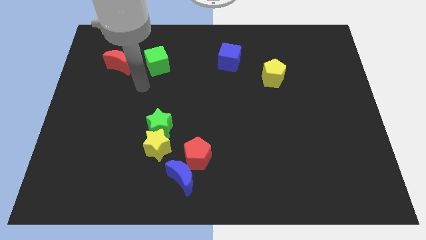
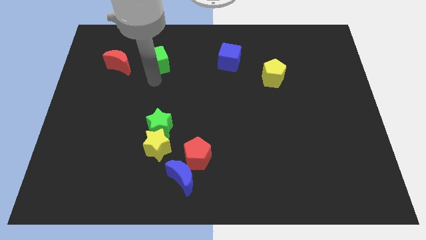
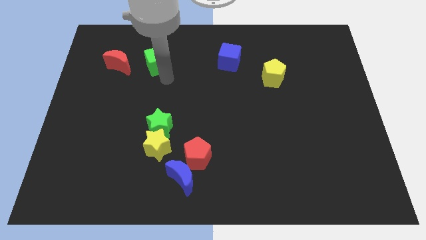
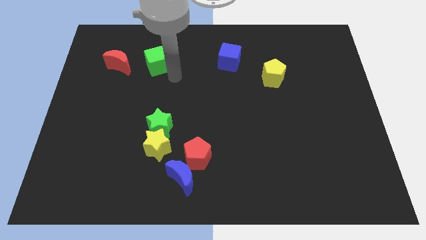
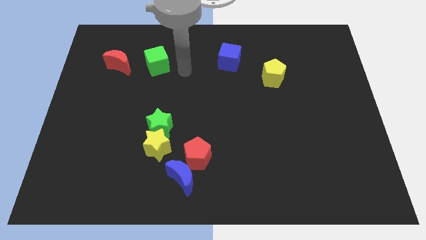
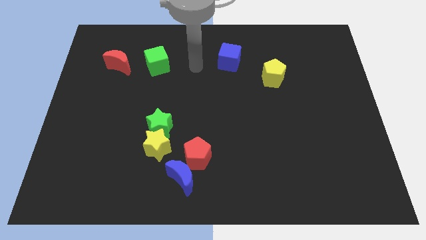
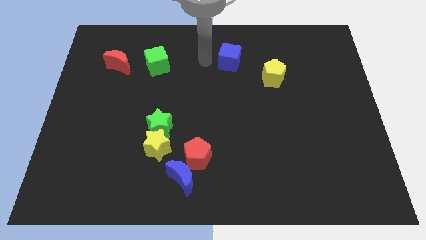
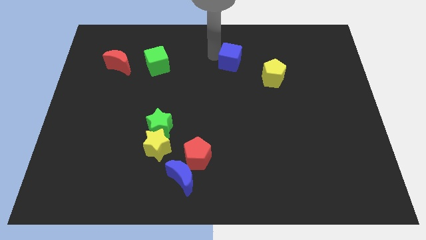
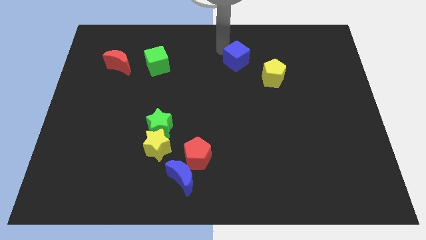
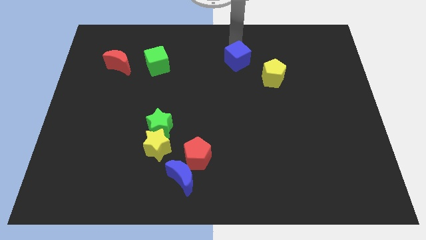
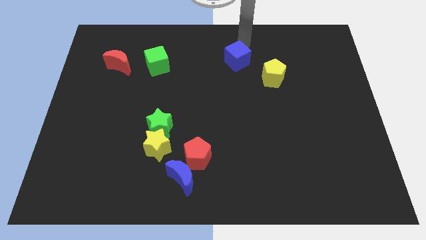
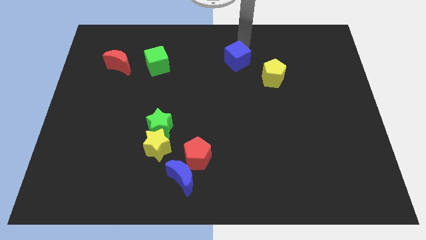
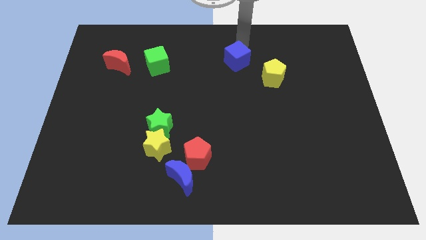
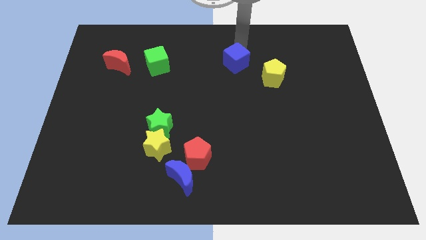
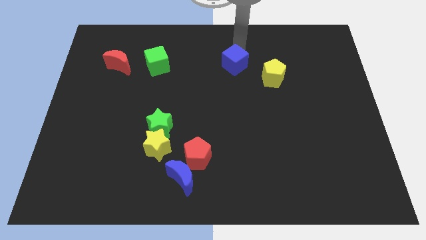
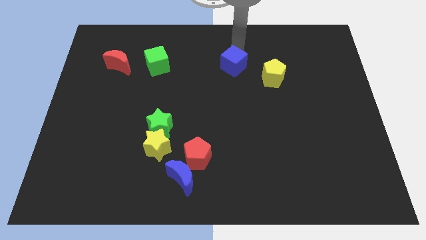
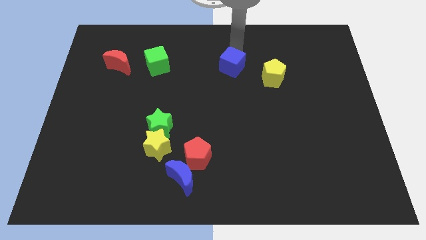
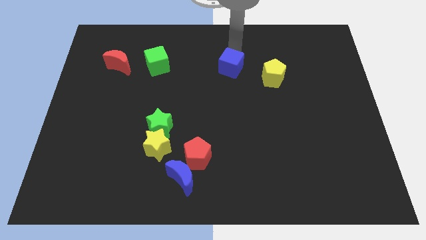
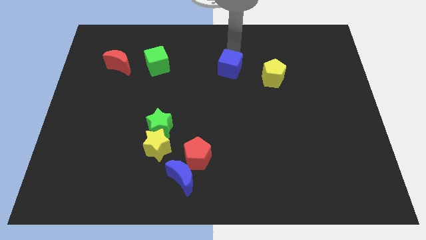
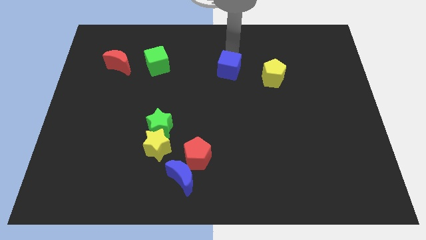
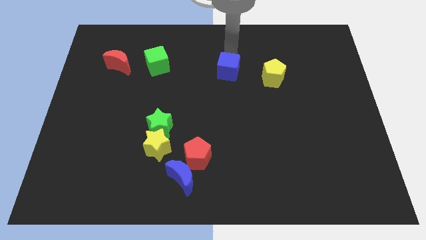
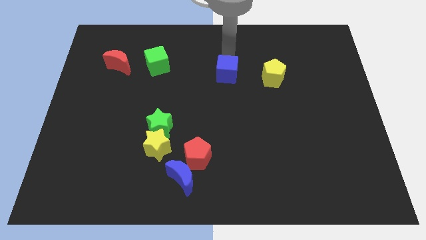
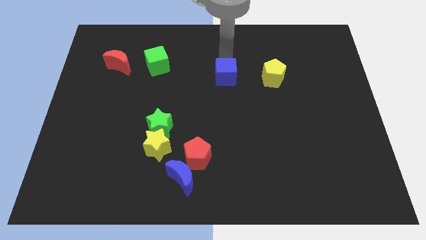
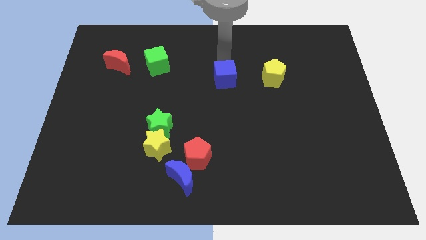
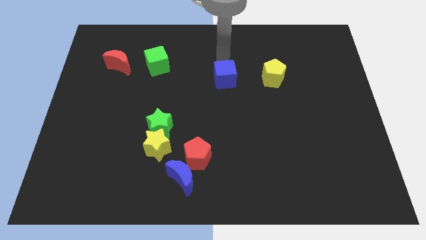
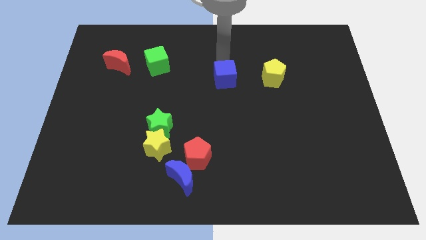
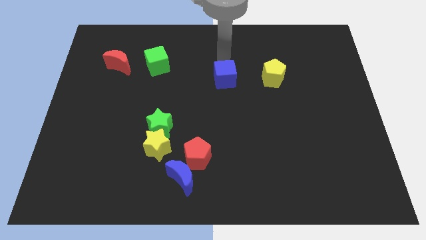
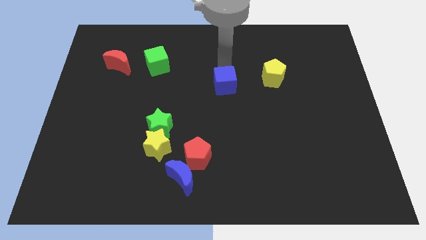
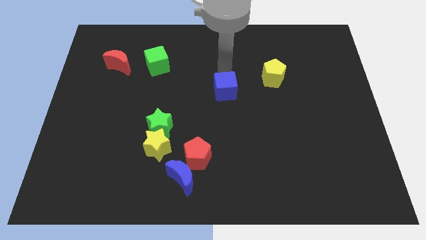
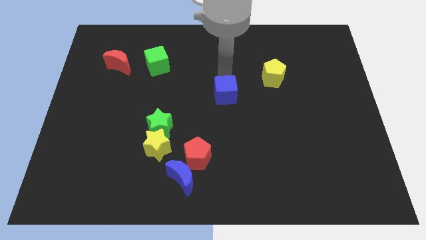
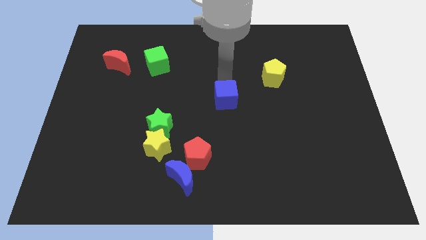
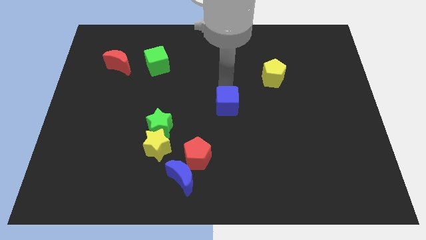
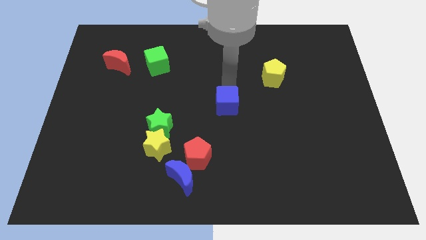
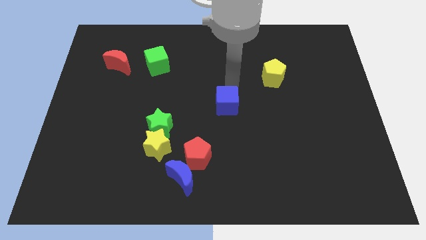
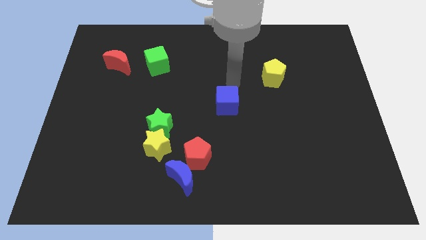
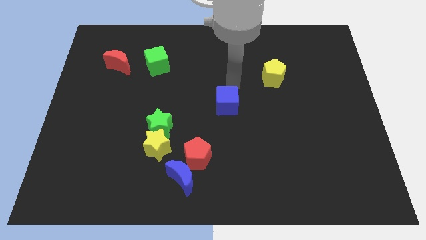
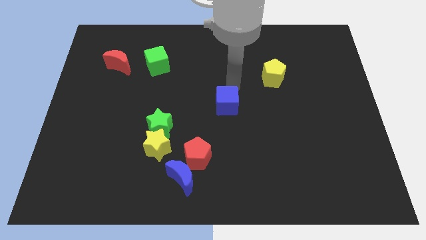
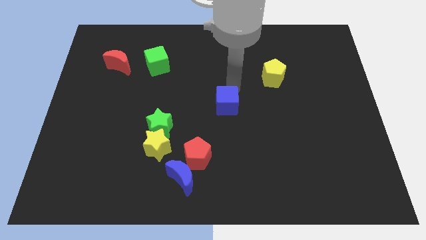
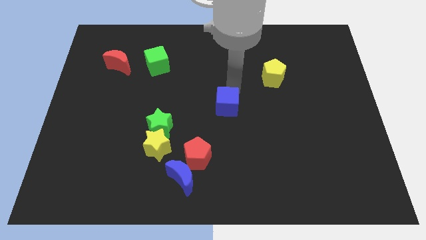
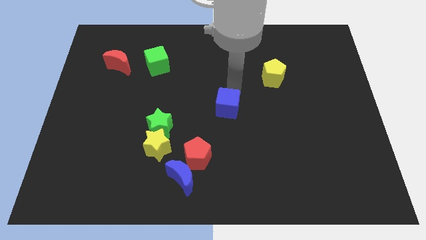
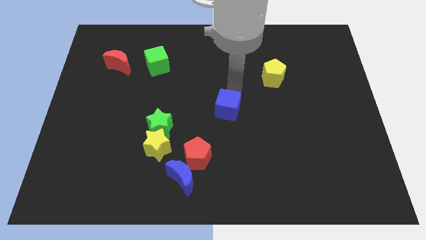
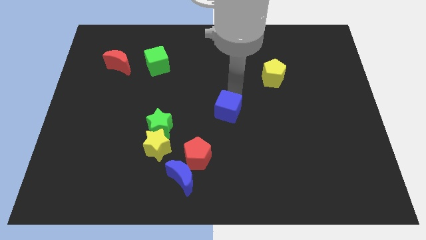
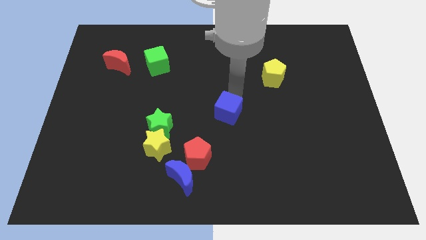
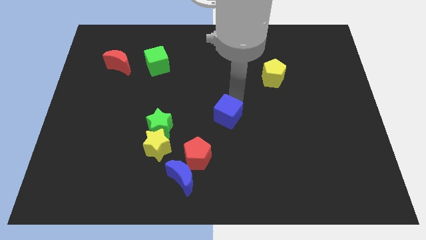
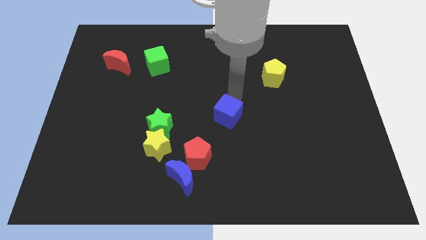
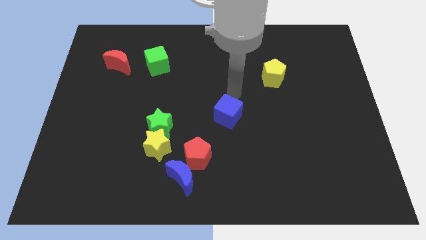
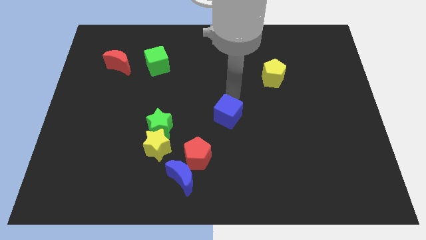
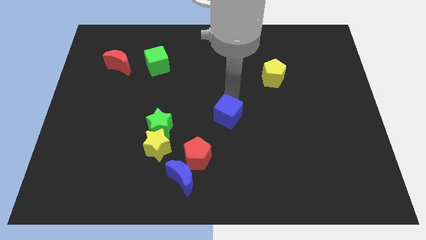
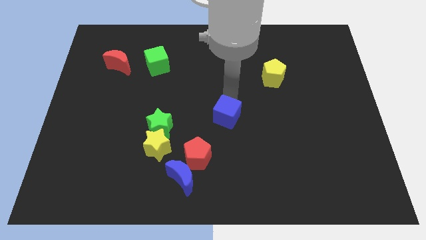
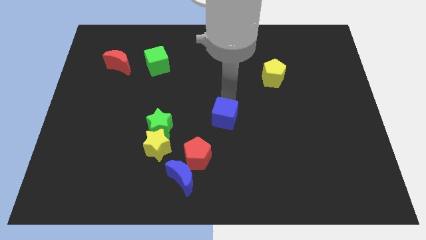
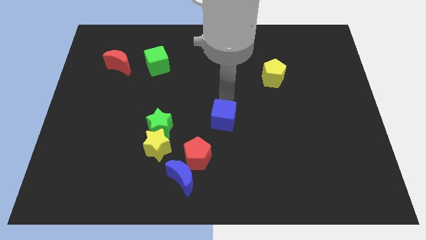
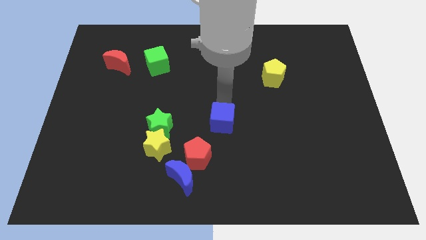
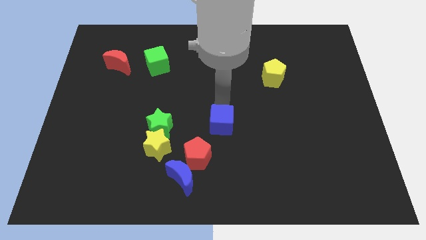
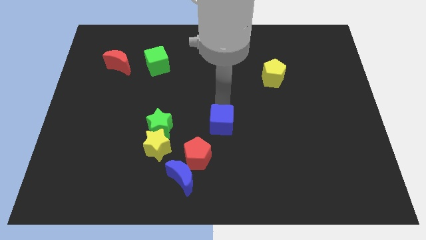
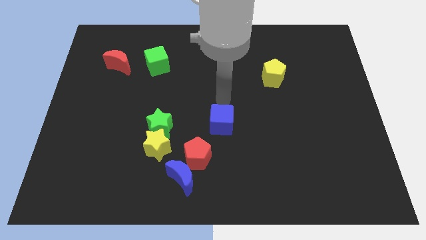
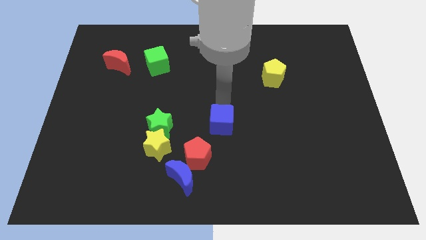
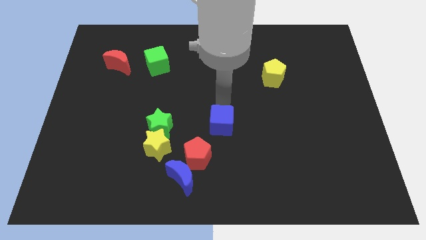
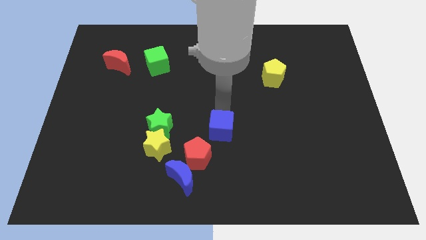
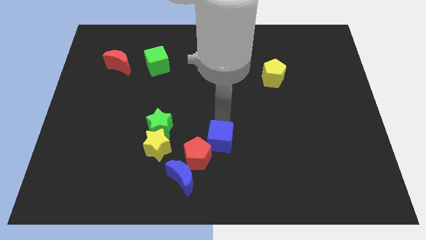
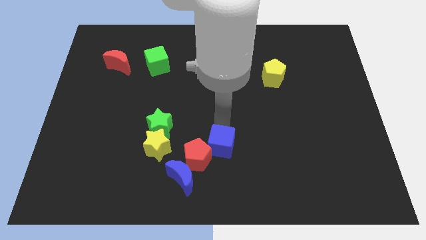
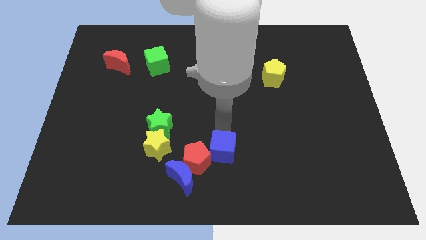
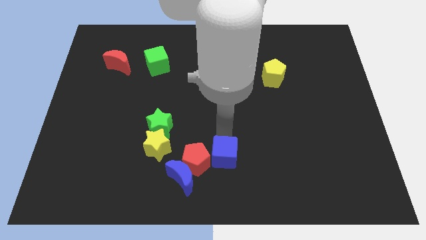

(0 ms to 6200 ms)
put the blue cube to the bottom side
